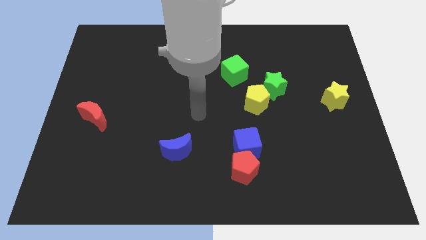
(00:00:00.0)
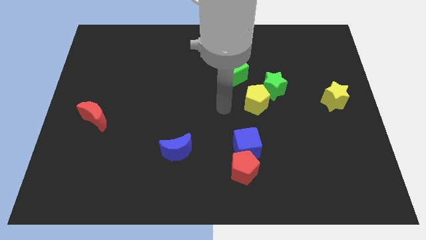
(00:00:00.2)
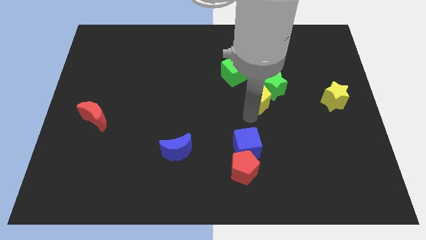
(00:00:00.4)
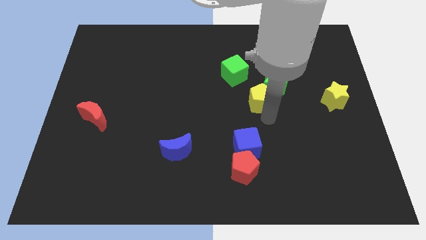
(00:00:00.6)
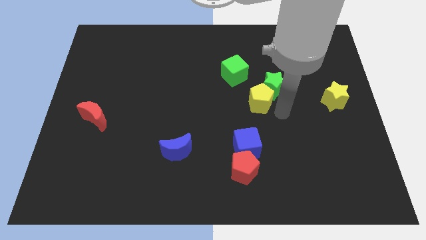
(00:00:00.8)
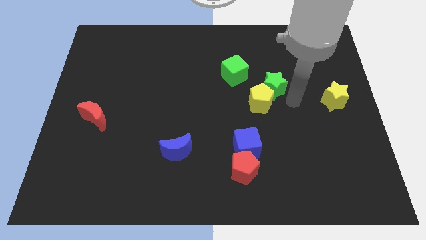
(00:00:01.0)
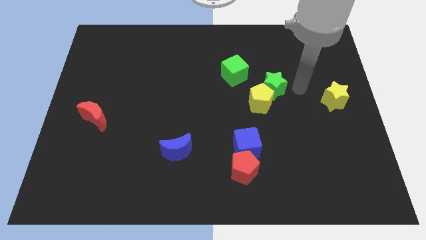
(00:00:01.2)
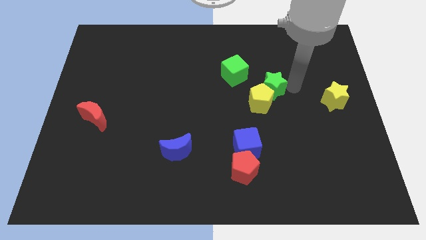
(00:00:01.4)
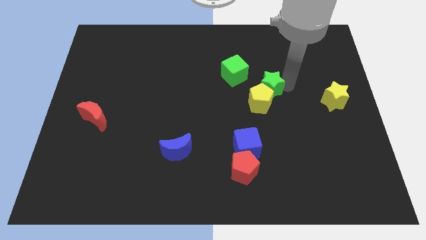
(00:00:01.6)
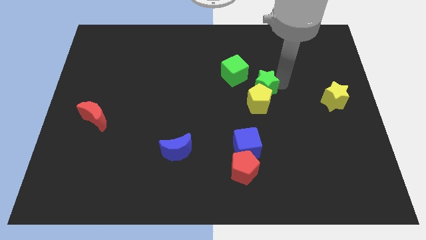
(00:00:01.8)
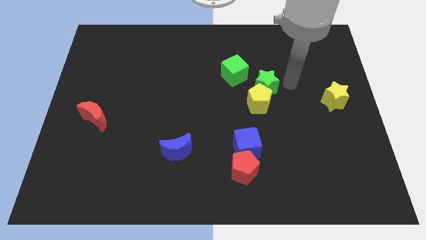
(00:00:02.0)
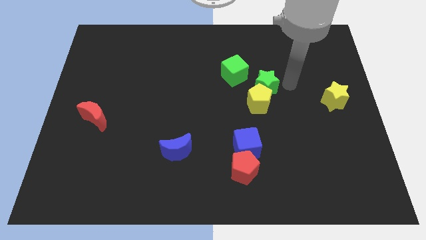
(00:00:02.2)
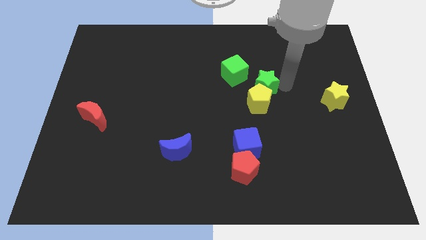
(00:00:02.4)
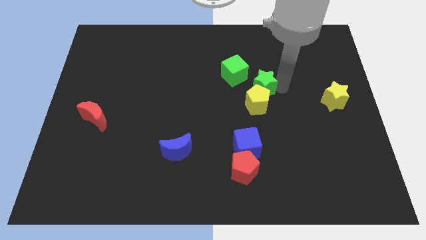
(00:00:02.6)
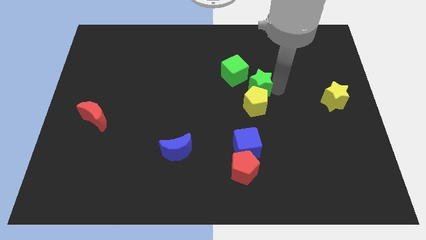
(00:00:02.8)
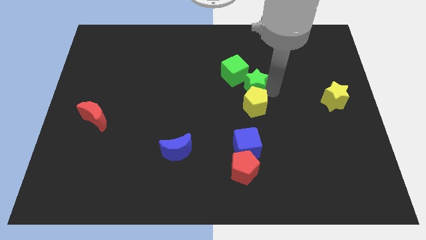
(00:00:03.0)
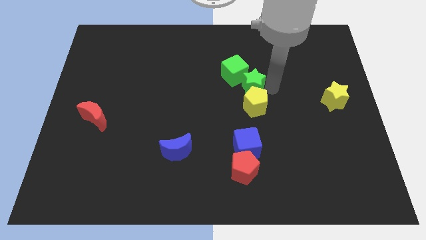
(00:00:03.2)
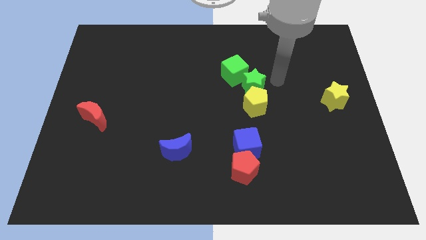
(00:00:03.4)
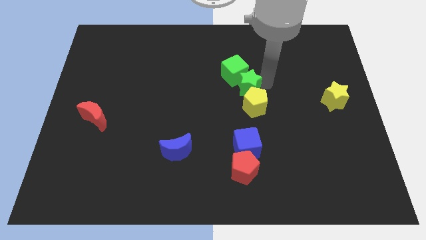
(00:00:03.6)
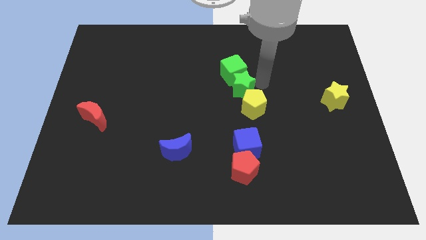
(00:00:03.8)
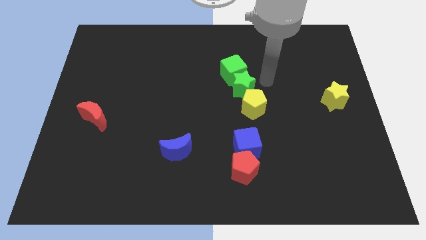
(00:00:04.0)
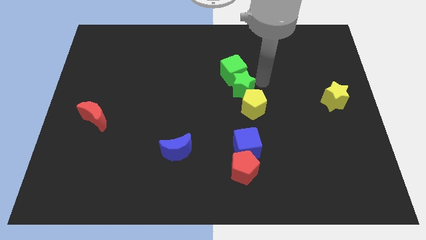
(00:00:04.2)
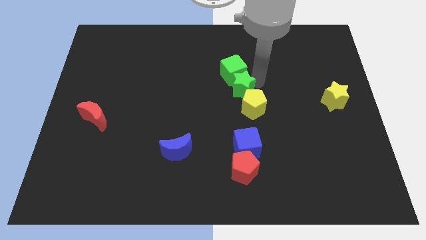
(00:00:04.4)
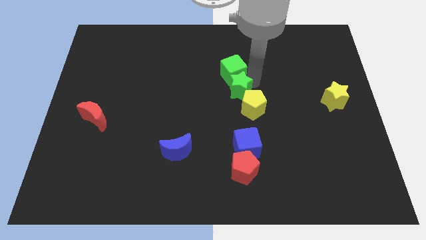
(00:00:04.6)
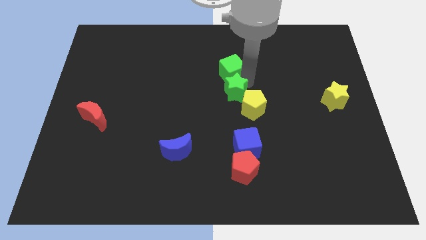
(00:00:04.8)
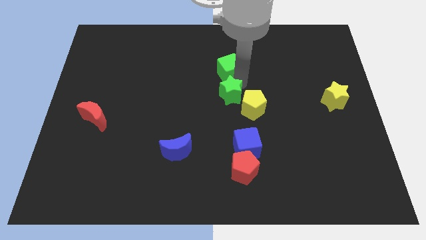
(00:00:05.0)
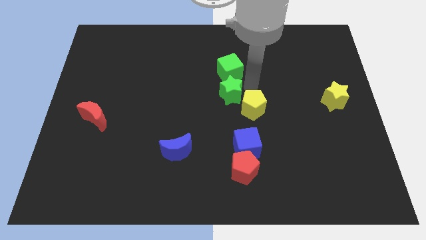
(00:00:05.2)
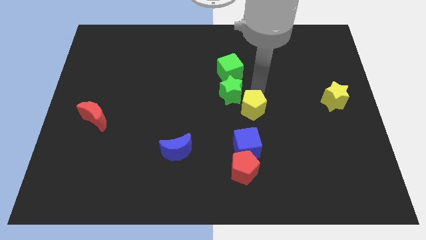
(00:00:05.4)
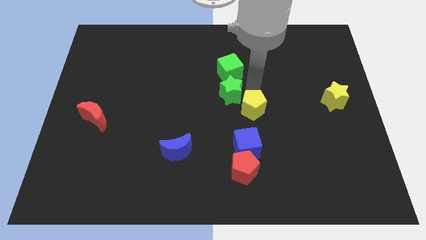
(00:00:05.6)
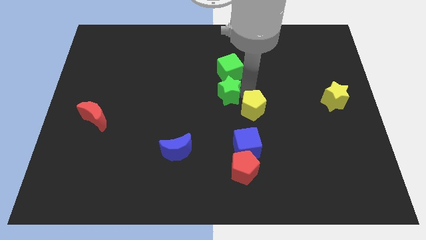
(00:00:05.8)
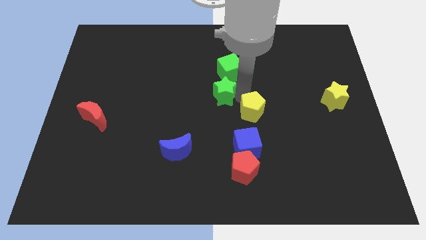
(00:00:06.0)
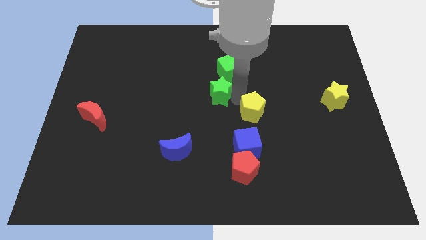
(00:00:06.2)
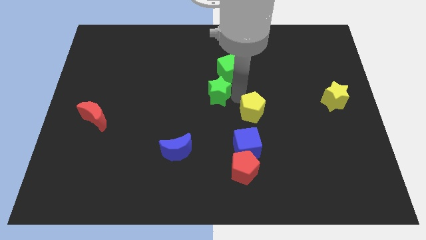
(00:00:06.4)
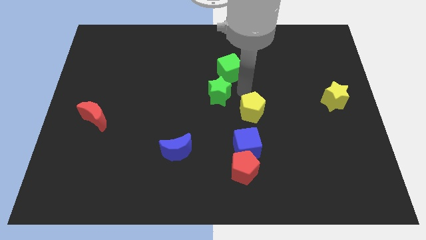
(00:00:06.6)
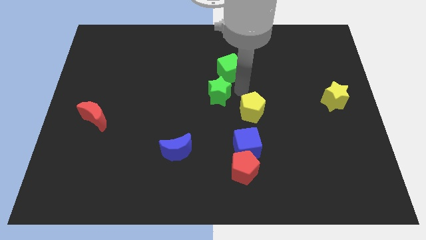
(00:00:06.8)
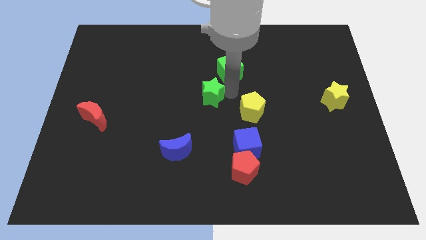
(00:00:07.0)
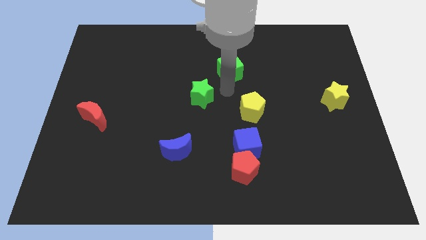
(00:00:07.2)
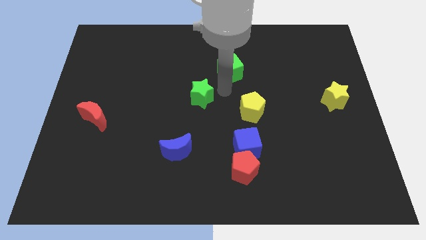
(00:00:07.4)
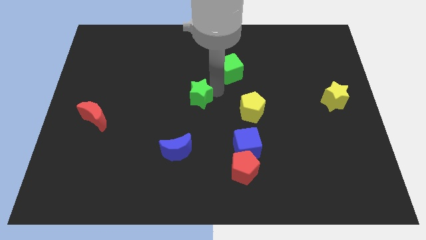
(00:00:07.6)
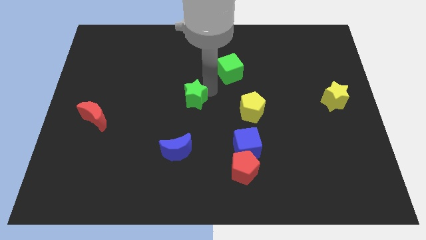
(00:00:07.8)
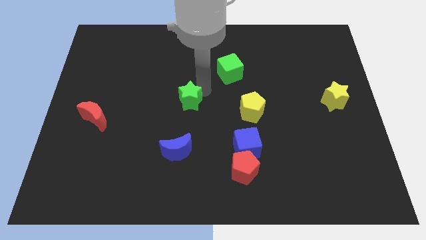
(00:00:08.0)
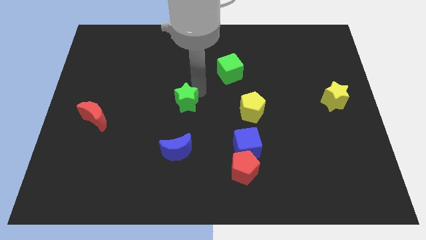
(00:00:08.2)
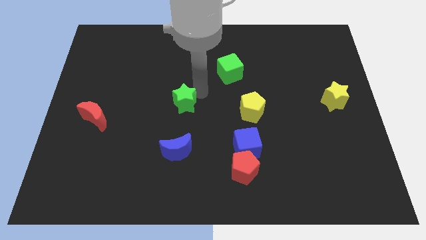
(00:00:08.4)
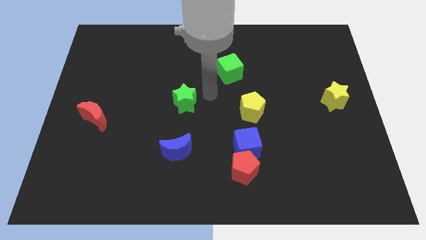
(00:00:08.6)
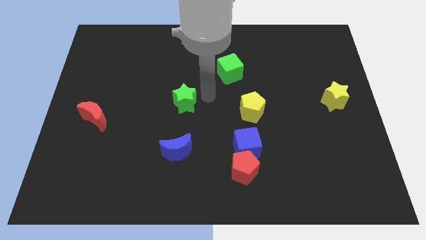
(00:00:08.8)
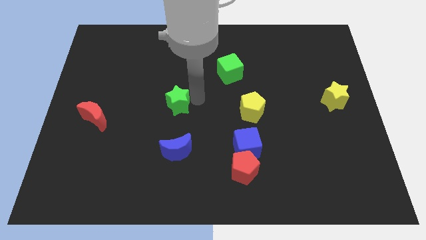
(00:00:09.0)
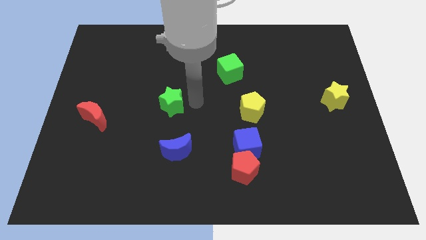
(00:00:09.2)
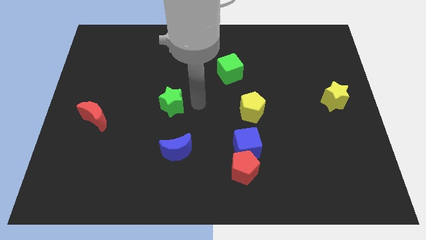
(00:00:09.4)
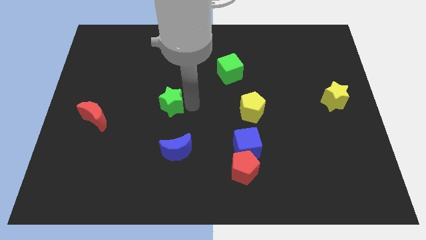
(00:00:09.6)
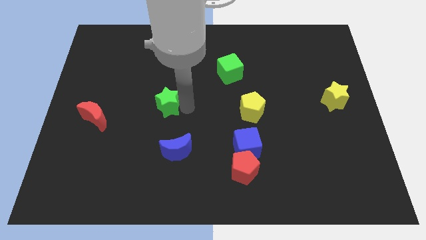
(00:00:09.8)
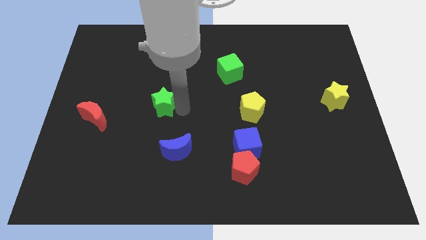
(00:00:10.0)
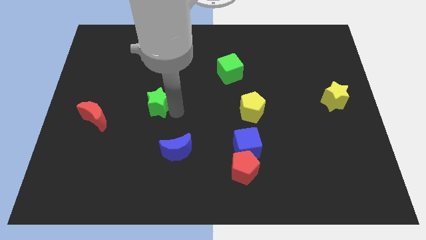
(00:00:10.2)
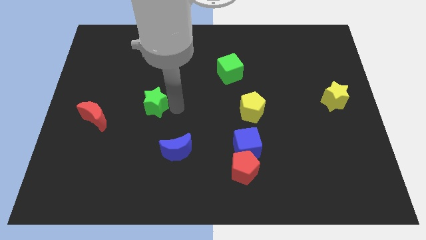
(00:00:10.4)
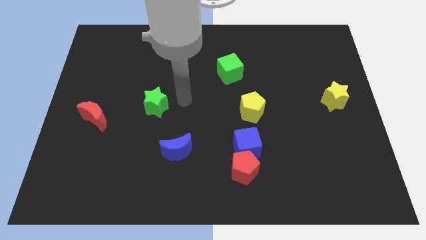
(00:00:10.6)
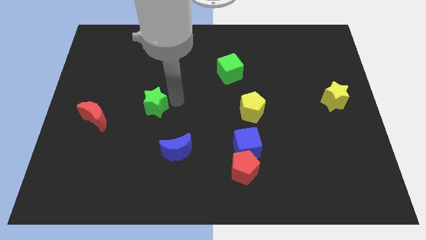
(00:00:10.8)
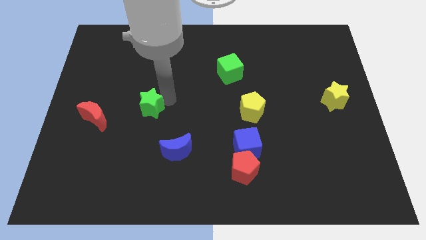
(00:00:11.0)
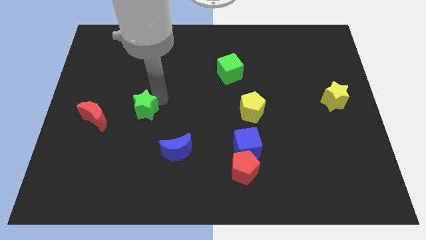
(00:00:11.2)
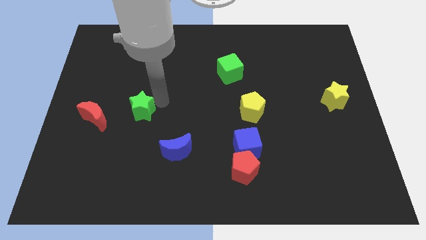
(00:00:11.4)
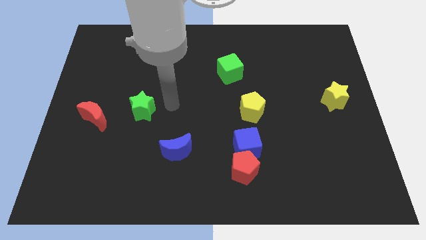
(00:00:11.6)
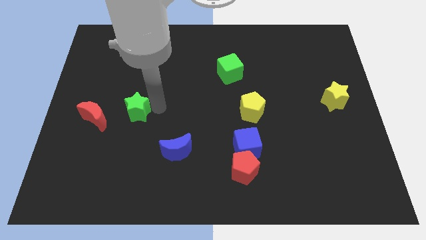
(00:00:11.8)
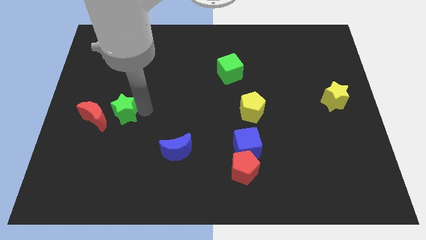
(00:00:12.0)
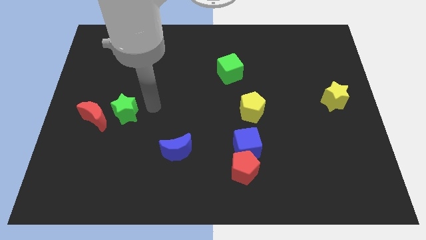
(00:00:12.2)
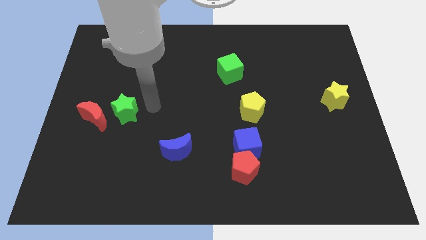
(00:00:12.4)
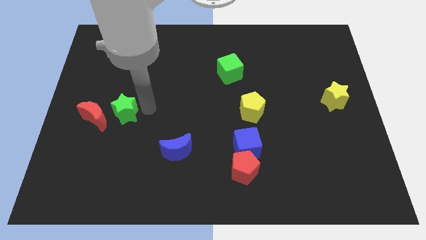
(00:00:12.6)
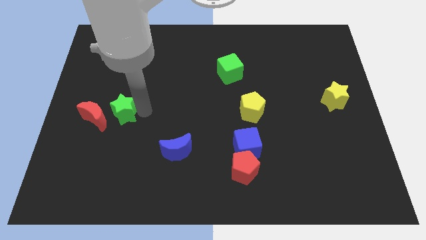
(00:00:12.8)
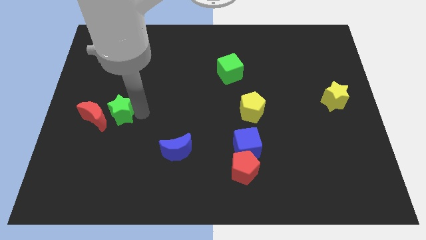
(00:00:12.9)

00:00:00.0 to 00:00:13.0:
put the green star towards the red moon
